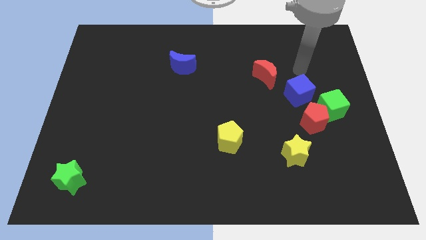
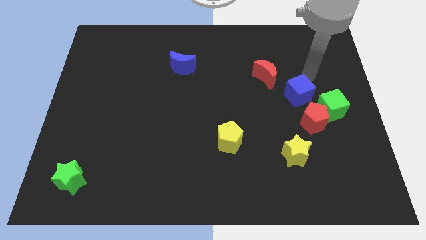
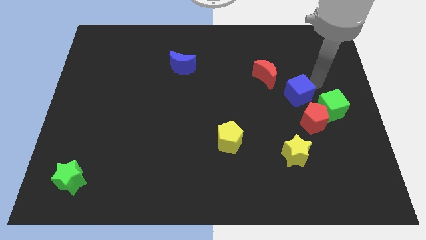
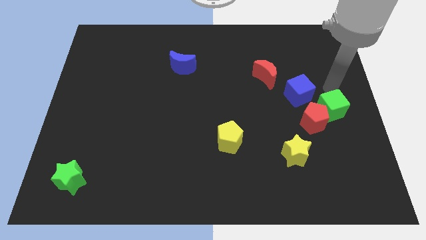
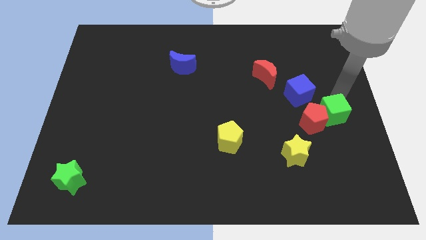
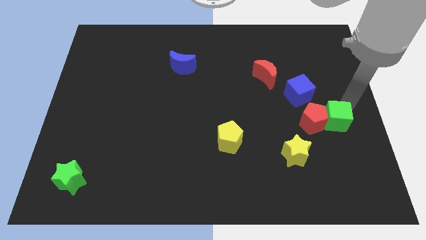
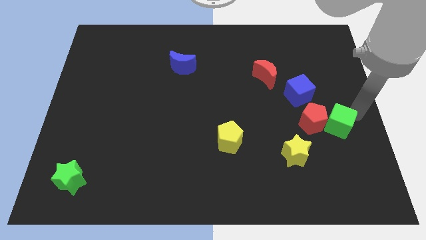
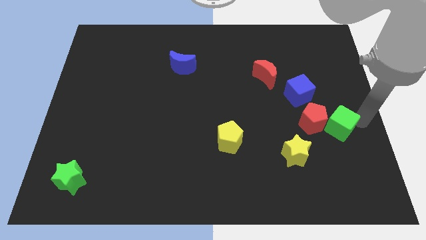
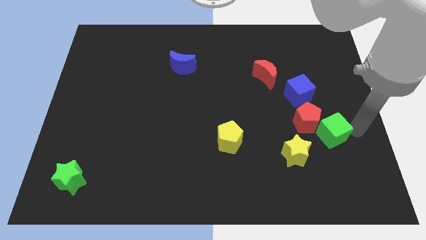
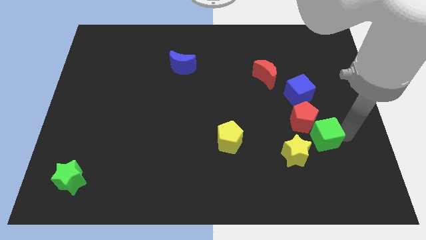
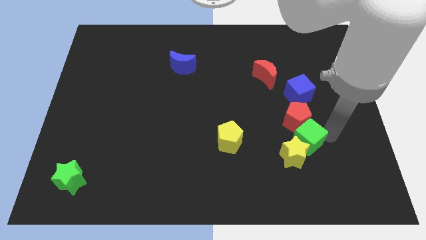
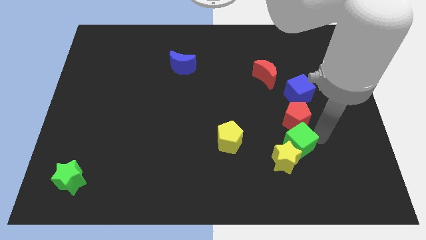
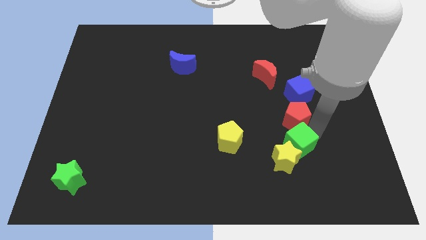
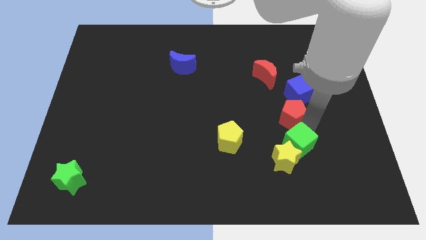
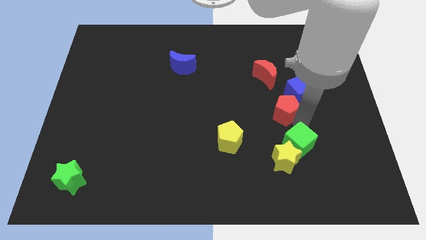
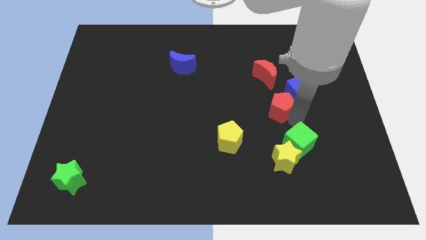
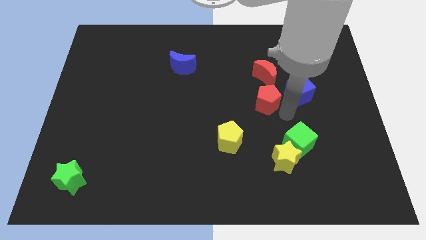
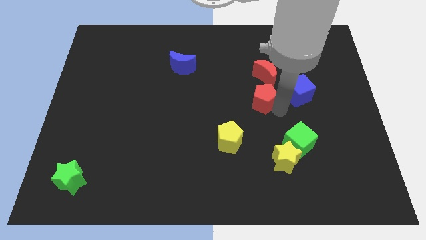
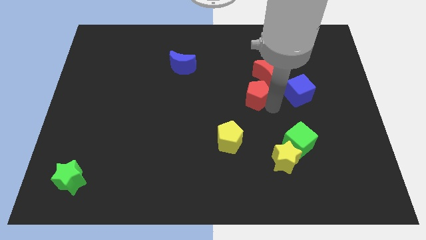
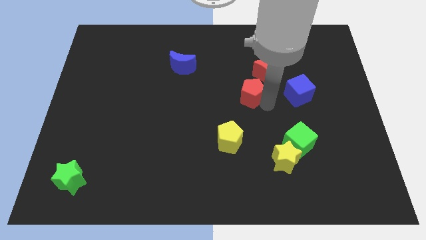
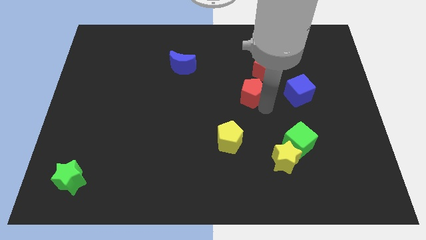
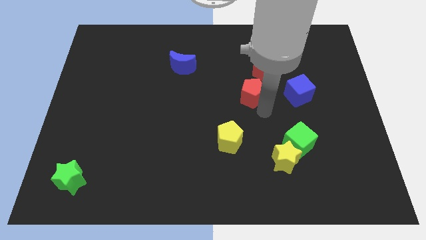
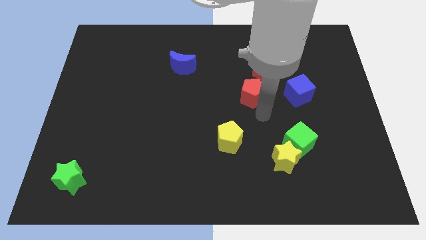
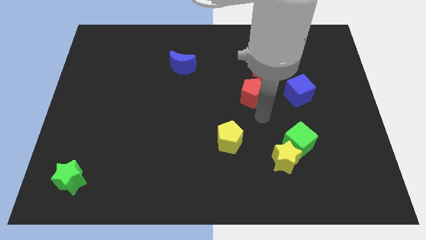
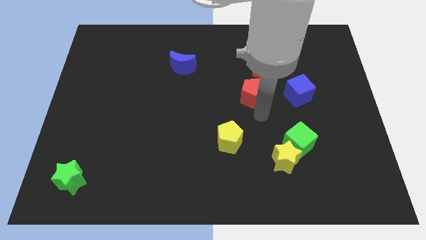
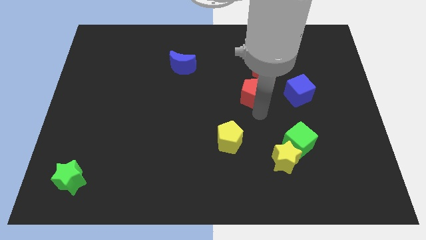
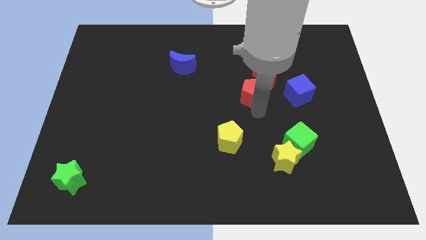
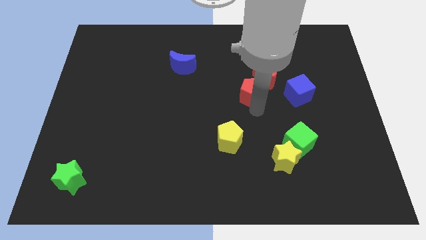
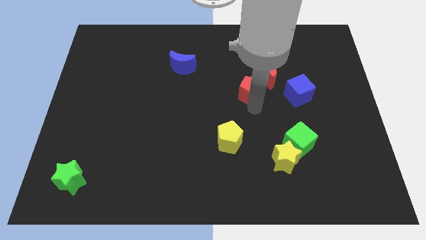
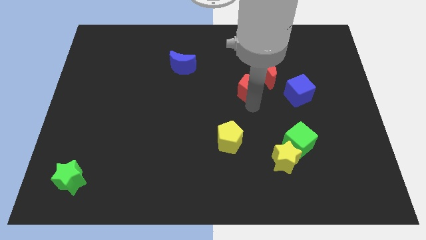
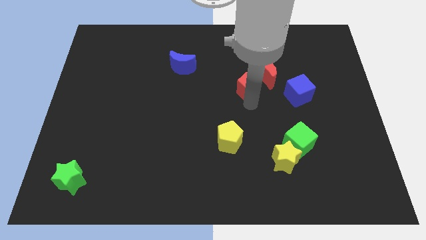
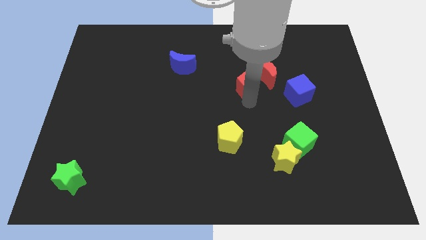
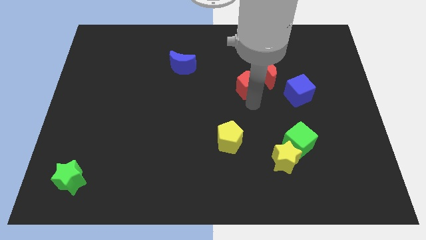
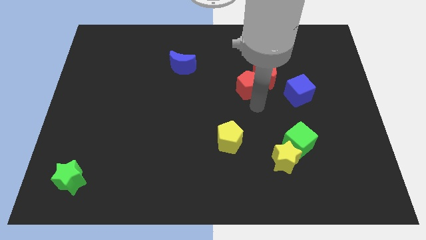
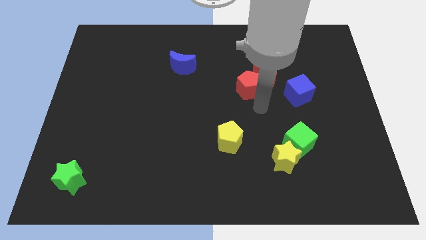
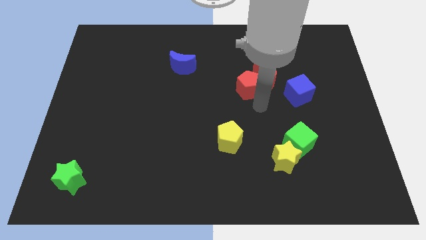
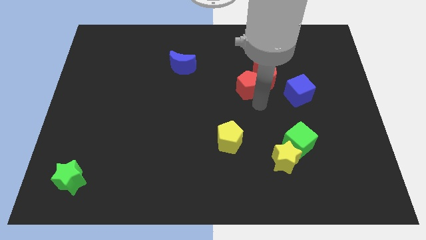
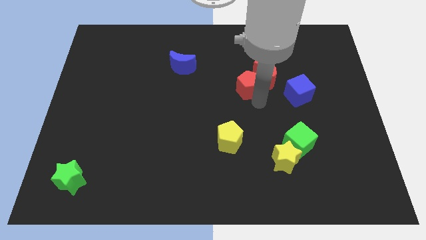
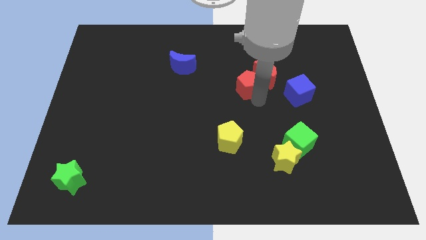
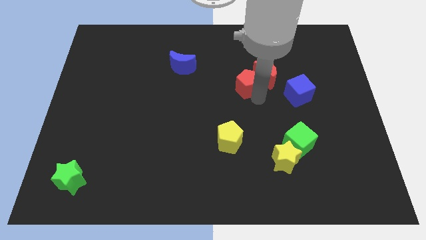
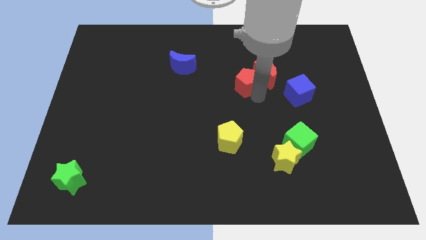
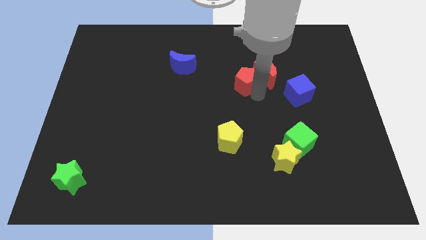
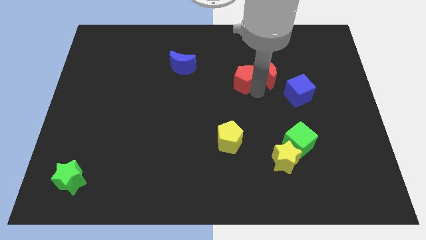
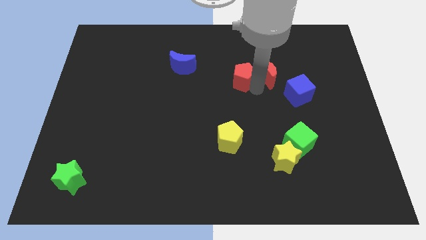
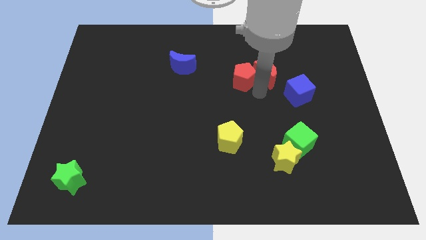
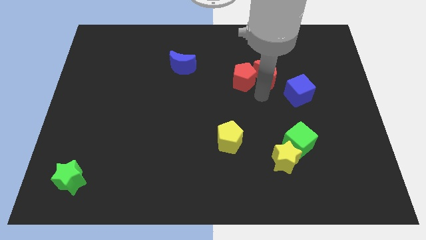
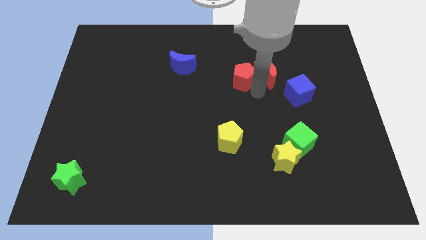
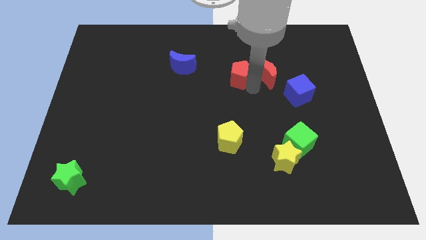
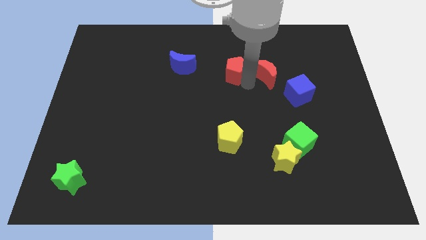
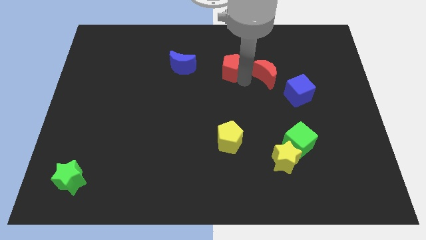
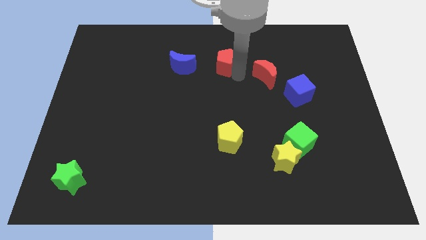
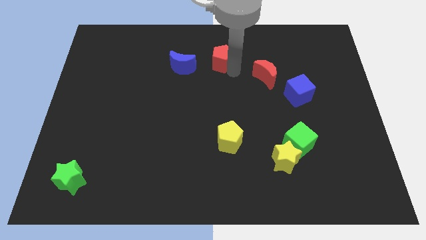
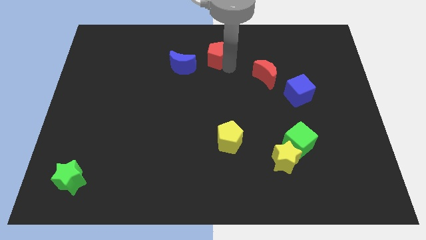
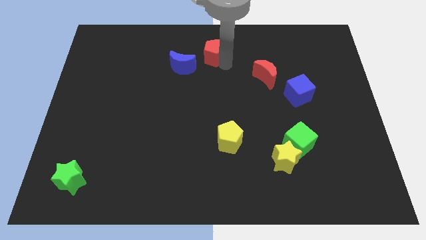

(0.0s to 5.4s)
slide the red pentagon to the top
